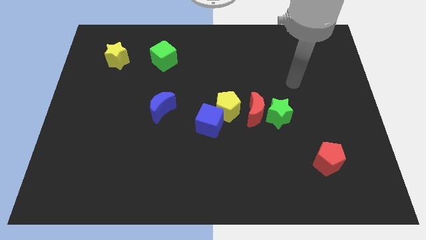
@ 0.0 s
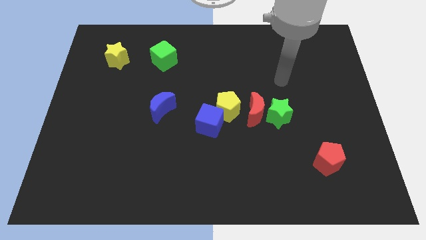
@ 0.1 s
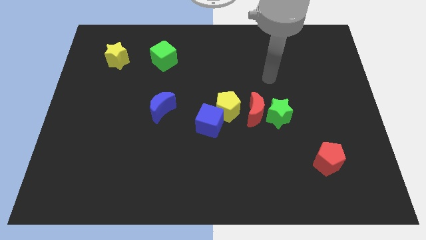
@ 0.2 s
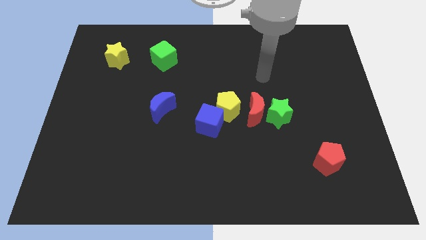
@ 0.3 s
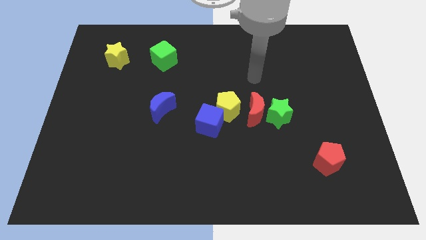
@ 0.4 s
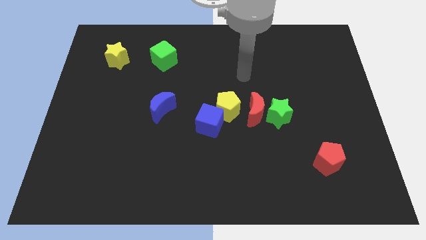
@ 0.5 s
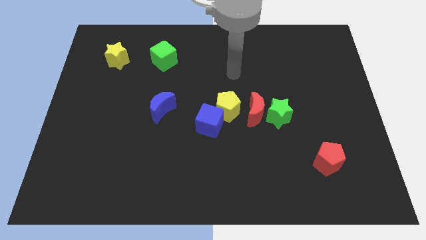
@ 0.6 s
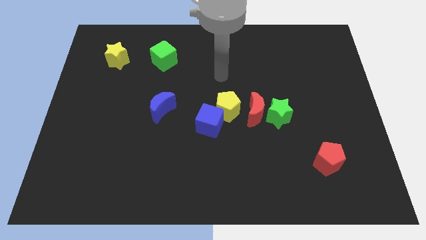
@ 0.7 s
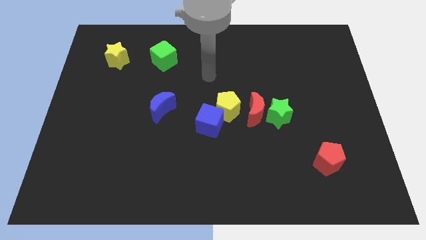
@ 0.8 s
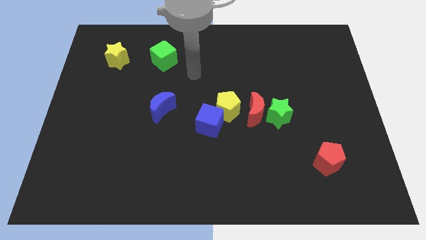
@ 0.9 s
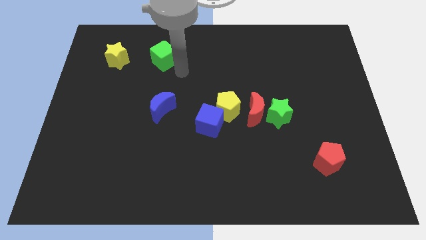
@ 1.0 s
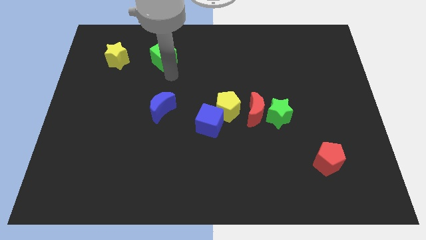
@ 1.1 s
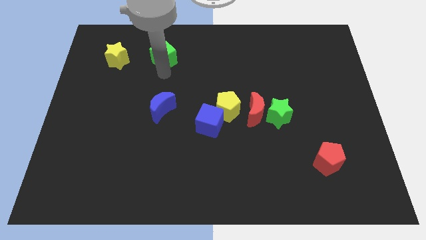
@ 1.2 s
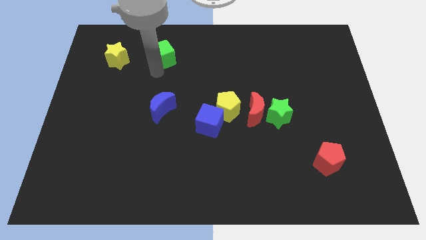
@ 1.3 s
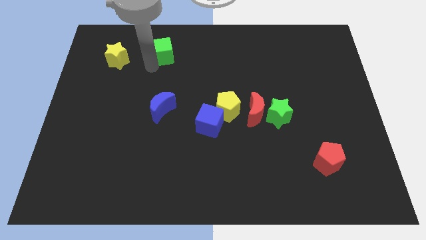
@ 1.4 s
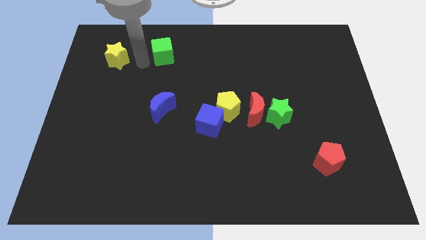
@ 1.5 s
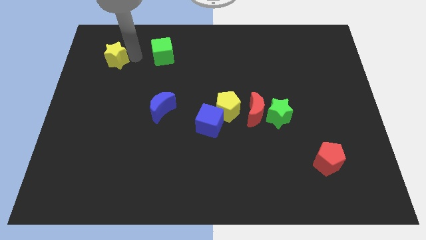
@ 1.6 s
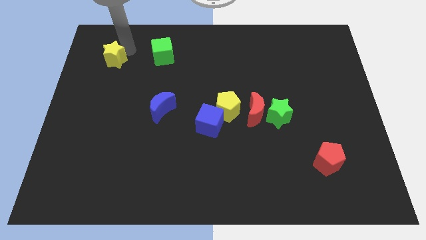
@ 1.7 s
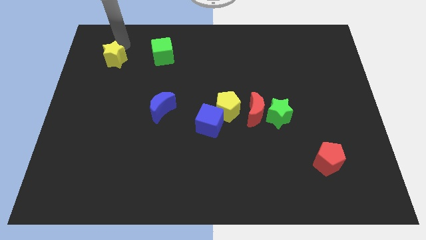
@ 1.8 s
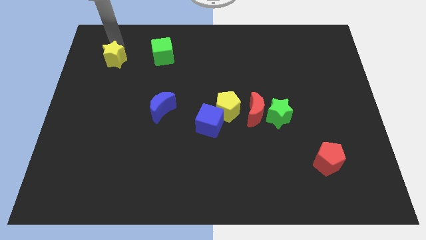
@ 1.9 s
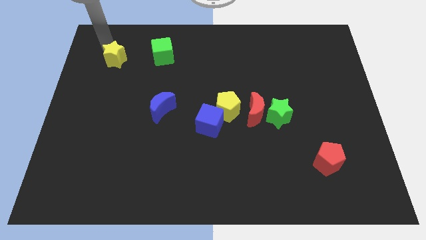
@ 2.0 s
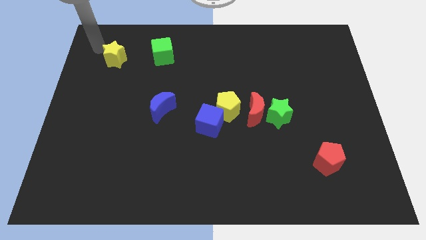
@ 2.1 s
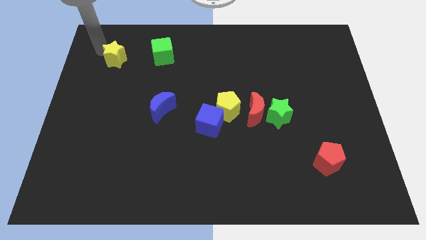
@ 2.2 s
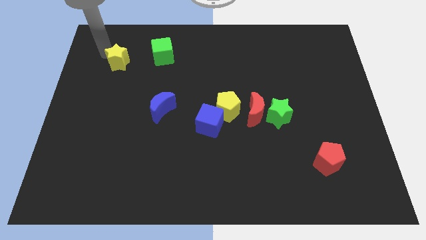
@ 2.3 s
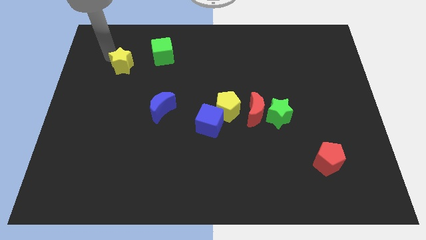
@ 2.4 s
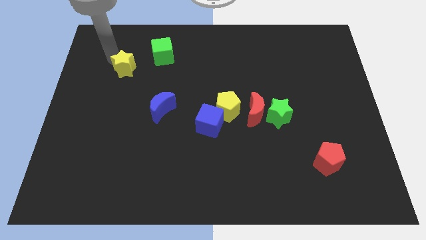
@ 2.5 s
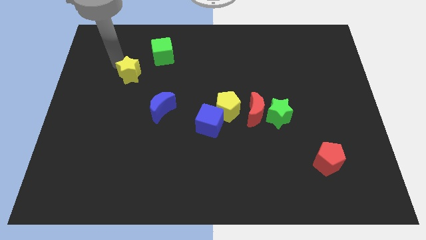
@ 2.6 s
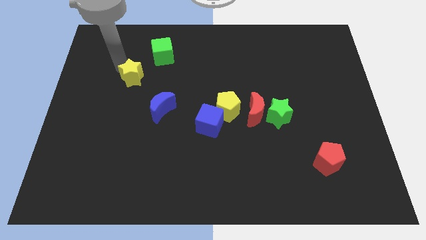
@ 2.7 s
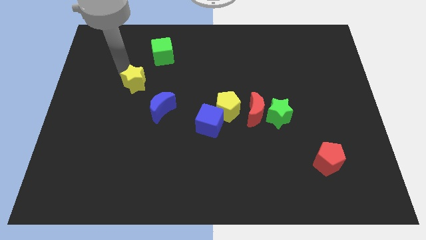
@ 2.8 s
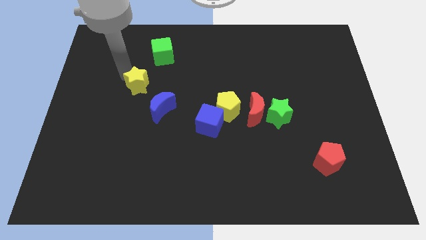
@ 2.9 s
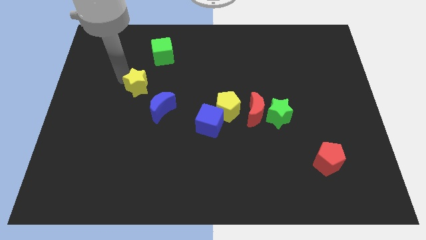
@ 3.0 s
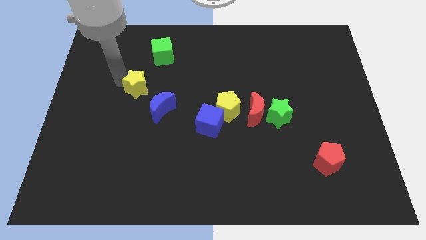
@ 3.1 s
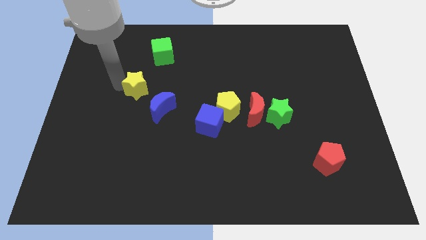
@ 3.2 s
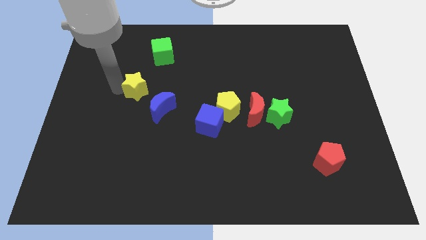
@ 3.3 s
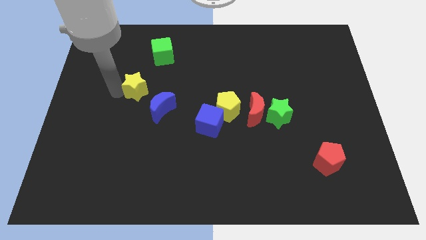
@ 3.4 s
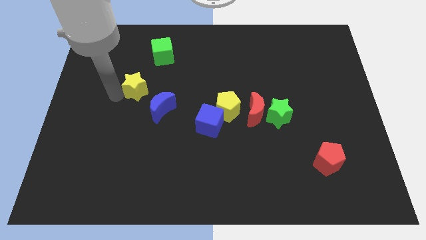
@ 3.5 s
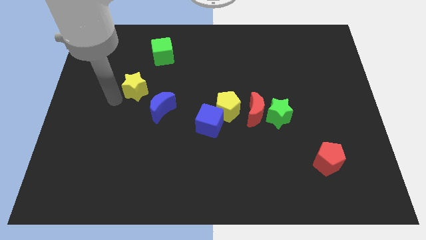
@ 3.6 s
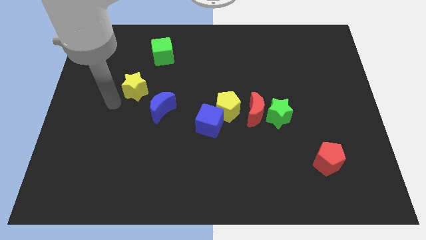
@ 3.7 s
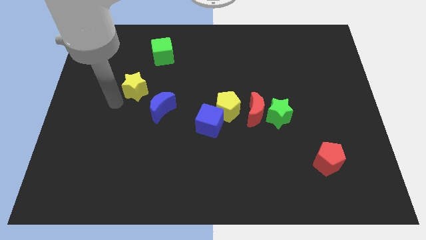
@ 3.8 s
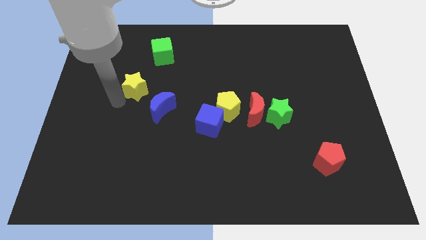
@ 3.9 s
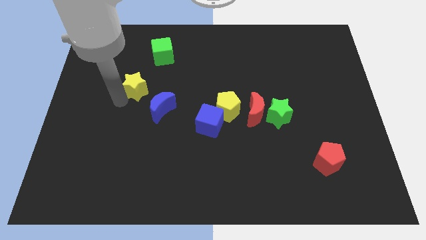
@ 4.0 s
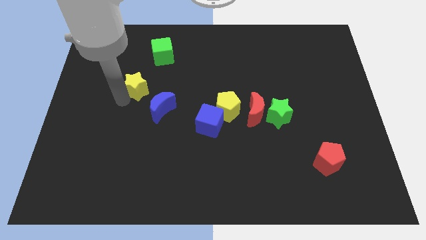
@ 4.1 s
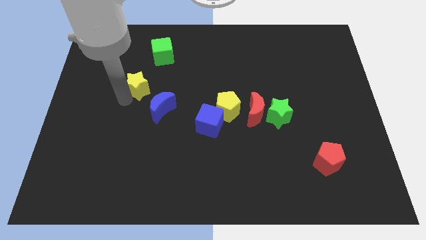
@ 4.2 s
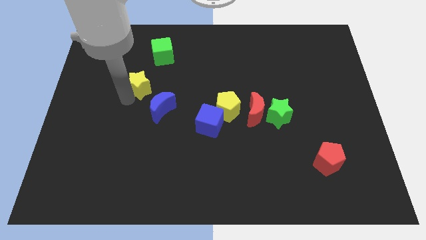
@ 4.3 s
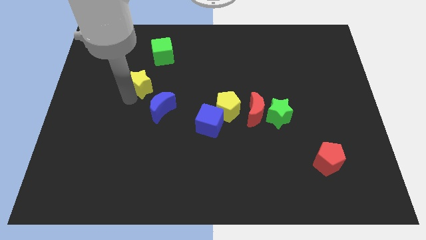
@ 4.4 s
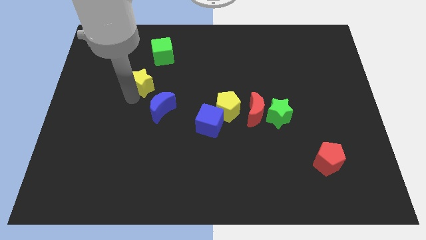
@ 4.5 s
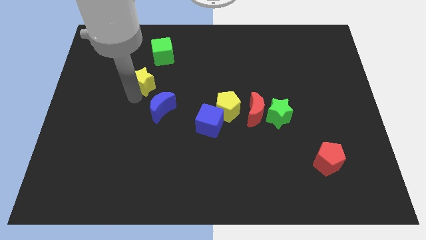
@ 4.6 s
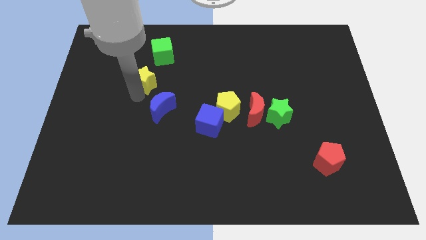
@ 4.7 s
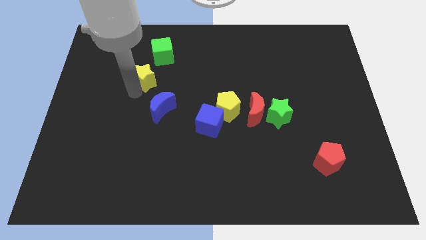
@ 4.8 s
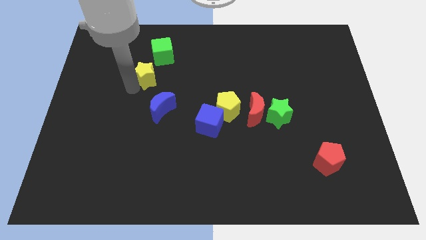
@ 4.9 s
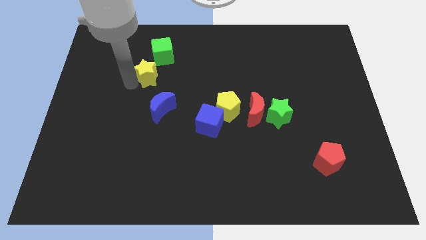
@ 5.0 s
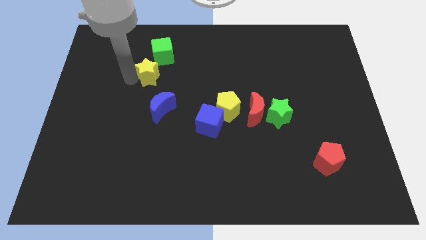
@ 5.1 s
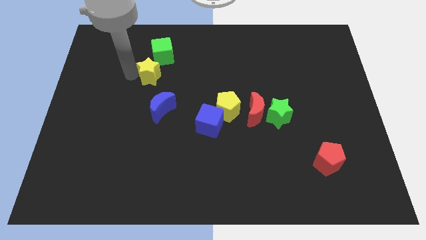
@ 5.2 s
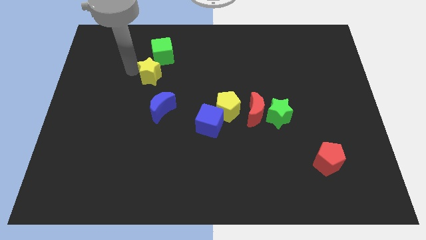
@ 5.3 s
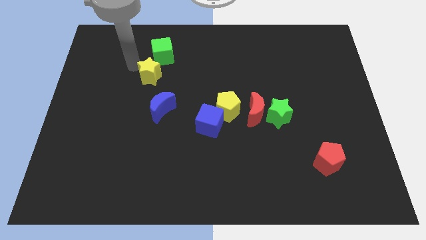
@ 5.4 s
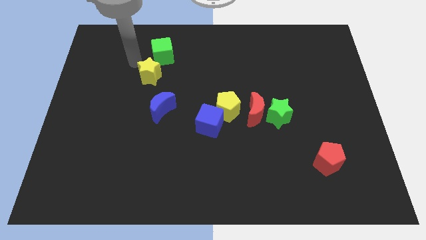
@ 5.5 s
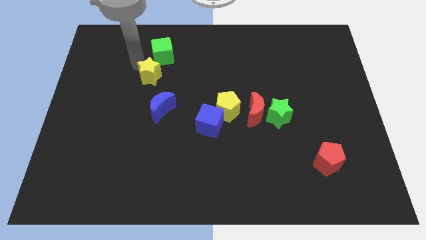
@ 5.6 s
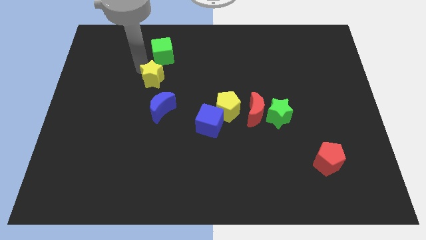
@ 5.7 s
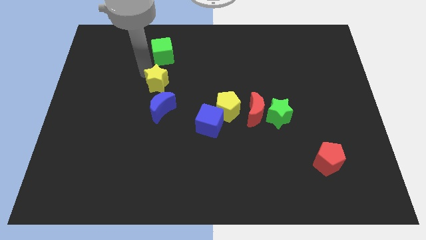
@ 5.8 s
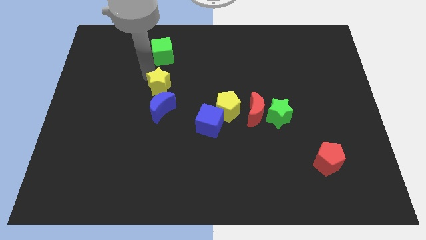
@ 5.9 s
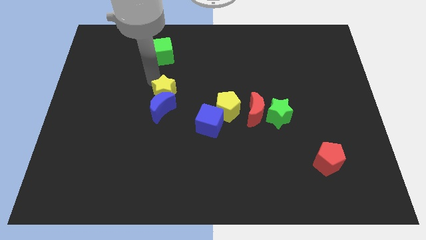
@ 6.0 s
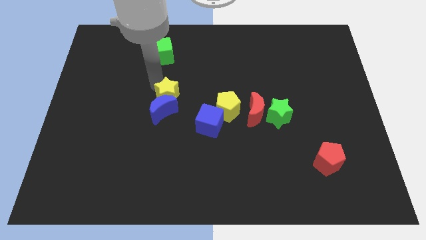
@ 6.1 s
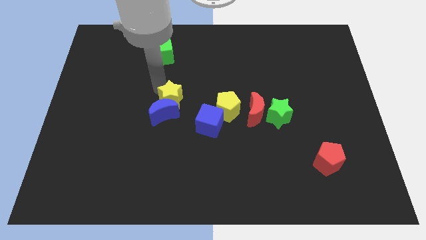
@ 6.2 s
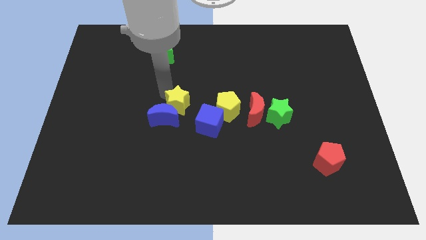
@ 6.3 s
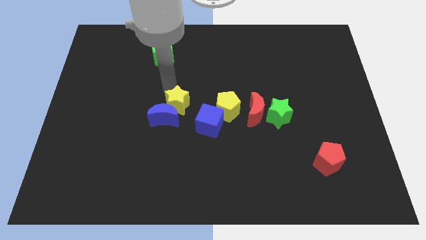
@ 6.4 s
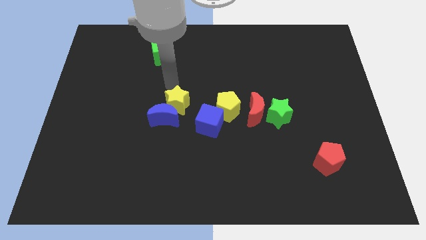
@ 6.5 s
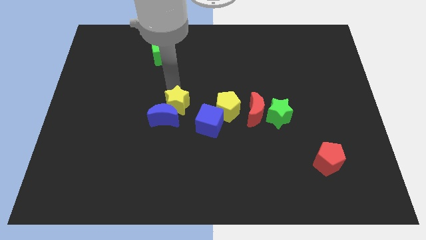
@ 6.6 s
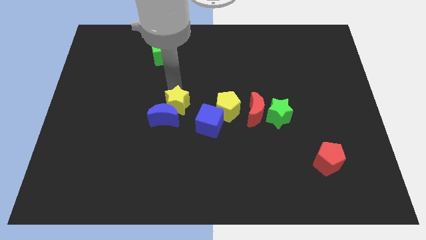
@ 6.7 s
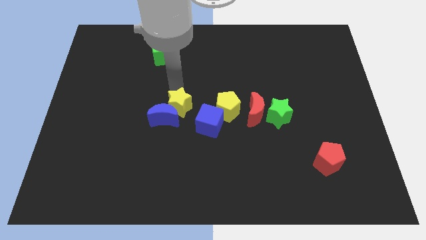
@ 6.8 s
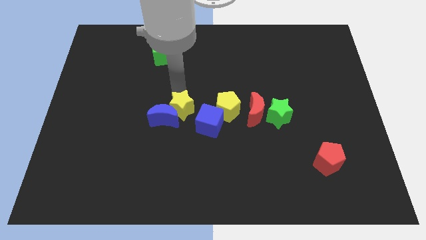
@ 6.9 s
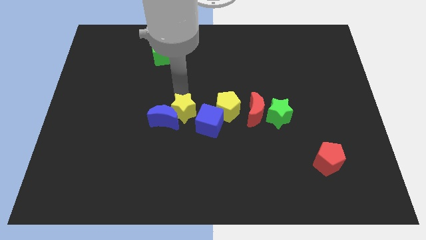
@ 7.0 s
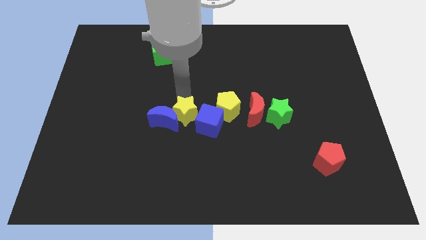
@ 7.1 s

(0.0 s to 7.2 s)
move the yellow star diagonally down and to the right of the blue moon

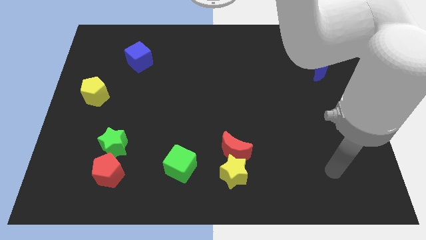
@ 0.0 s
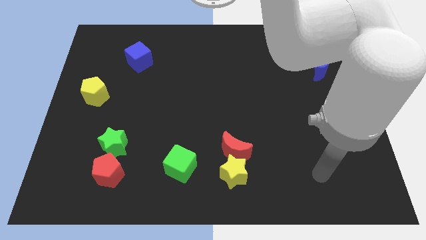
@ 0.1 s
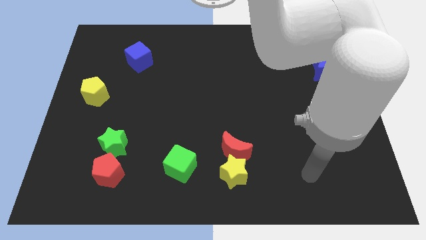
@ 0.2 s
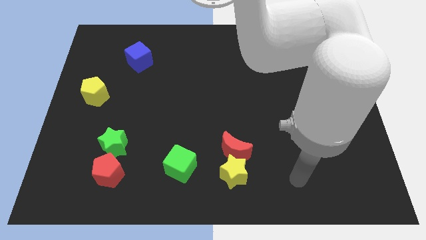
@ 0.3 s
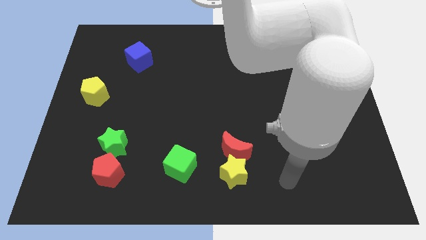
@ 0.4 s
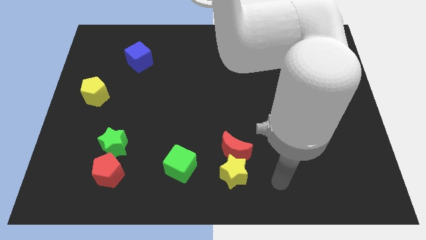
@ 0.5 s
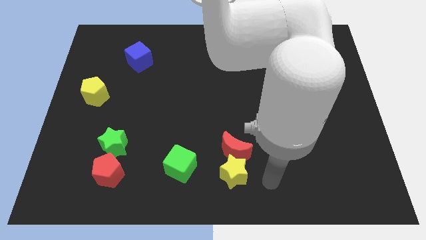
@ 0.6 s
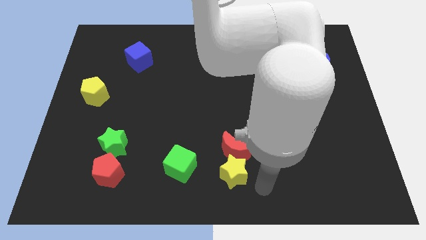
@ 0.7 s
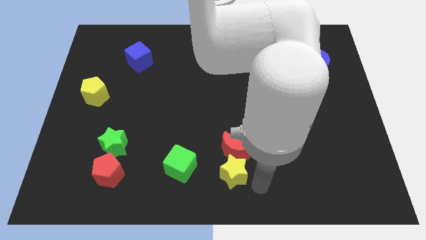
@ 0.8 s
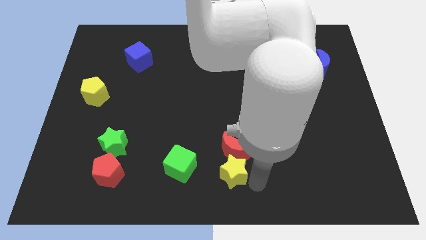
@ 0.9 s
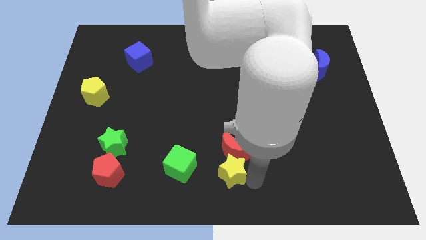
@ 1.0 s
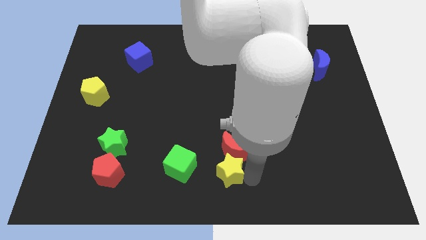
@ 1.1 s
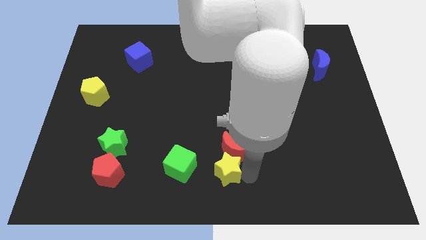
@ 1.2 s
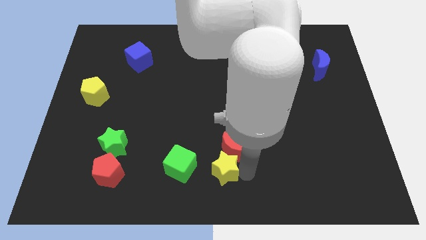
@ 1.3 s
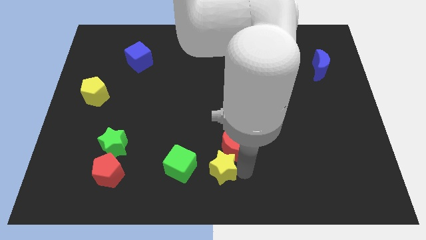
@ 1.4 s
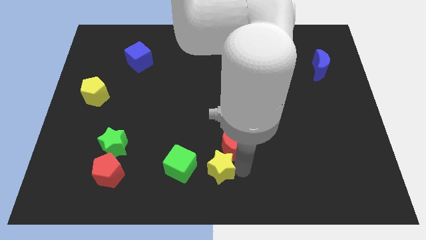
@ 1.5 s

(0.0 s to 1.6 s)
put the yellow star to the left side of the red moon
